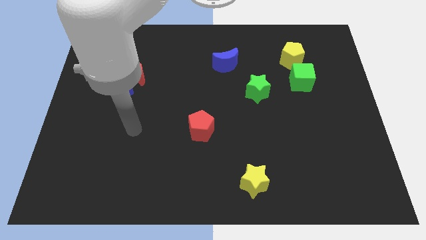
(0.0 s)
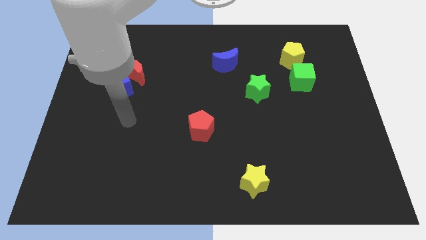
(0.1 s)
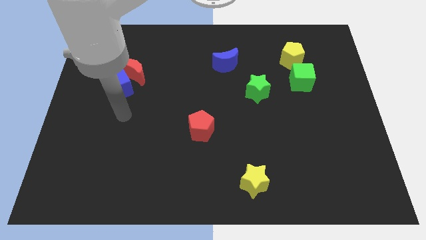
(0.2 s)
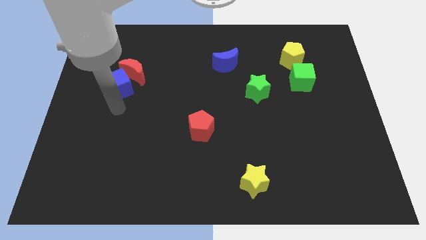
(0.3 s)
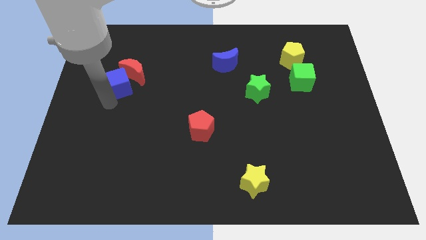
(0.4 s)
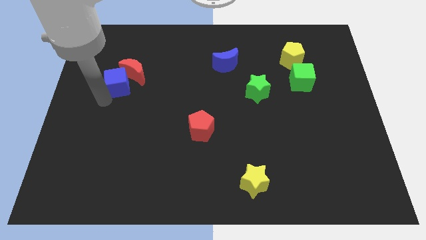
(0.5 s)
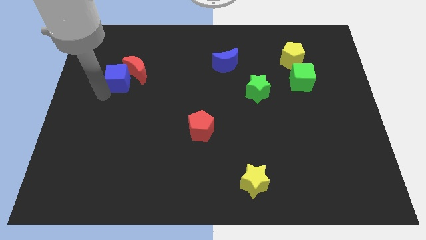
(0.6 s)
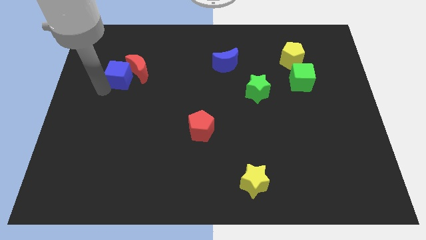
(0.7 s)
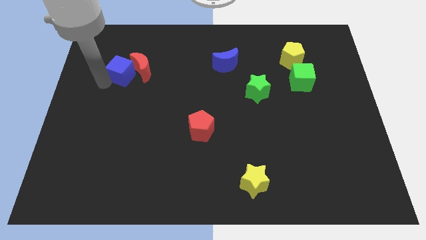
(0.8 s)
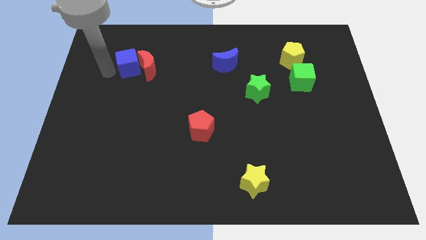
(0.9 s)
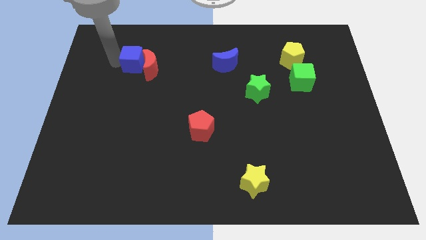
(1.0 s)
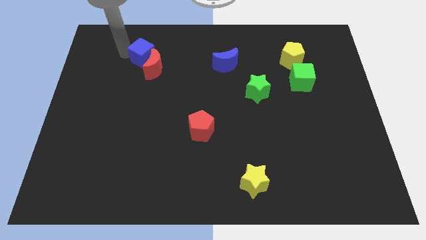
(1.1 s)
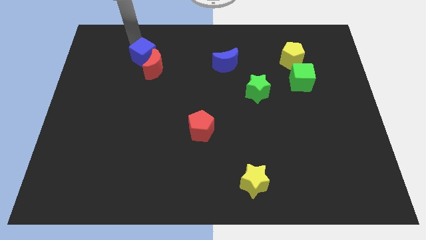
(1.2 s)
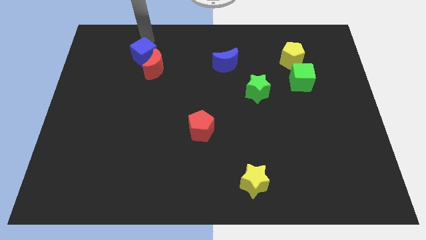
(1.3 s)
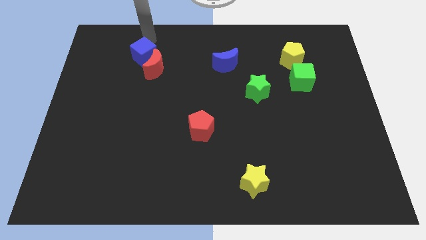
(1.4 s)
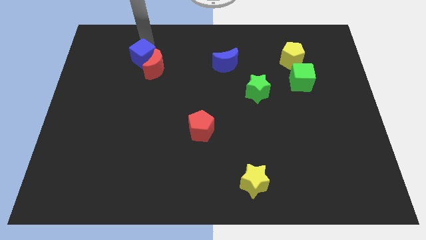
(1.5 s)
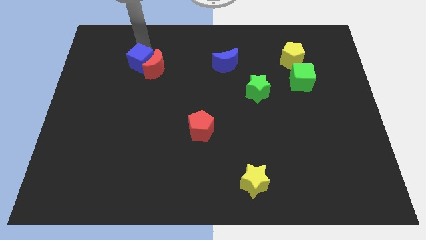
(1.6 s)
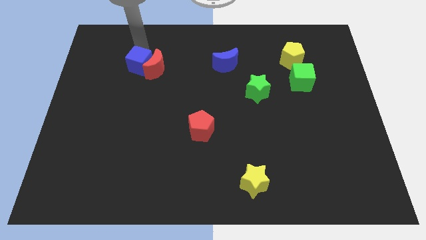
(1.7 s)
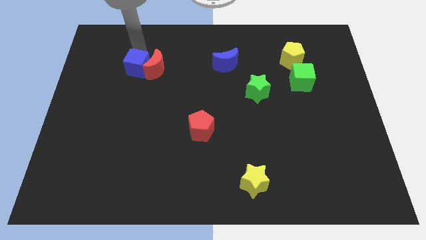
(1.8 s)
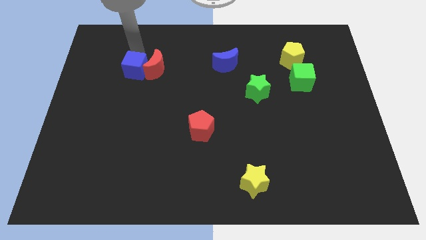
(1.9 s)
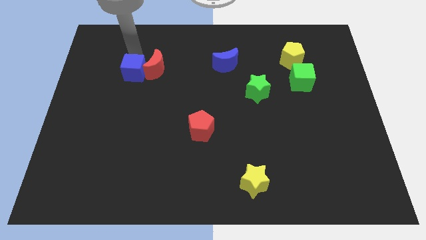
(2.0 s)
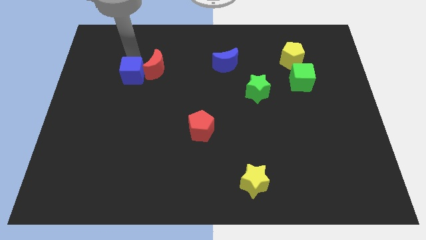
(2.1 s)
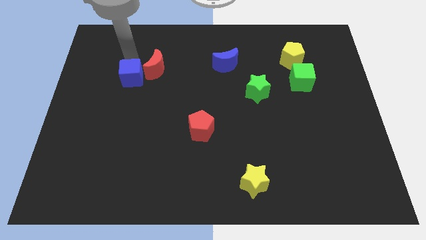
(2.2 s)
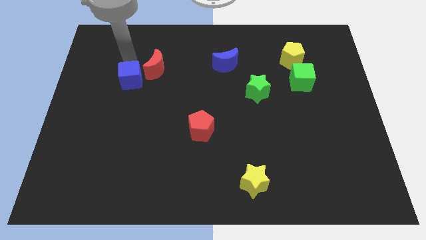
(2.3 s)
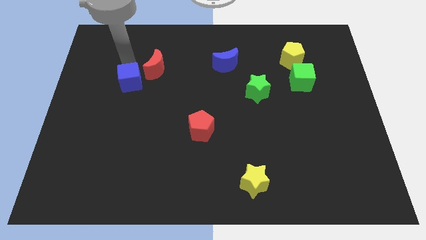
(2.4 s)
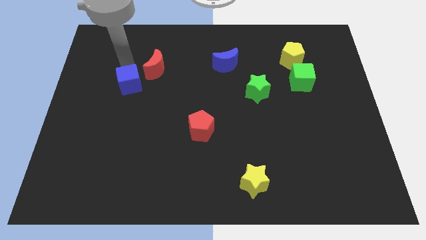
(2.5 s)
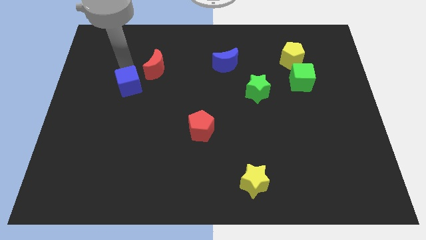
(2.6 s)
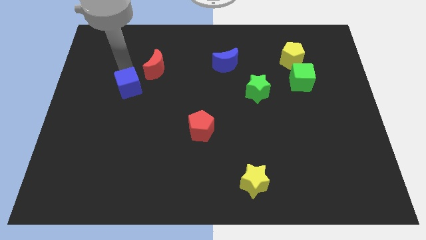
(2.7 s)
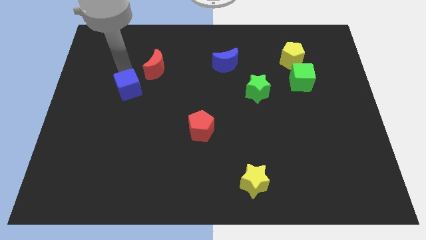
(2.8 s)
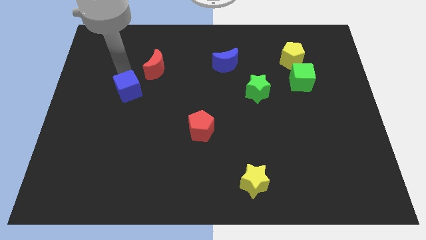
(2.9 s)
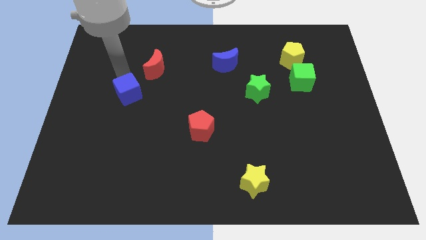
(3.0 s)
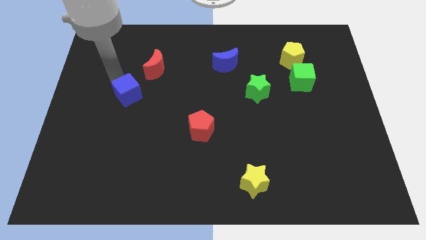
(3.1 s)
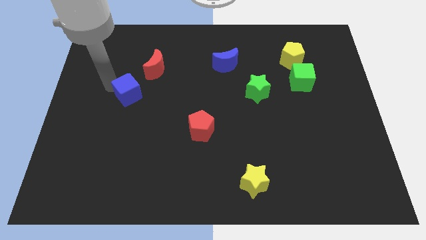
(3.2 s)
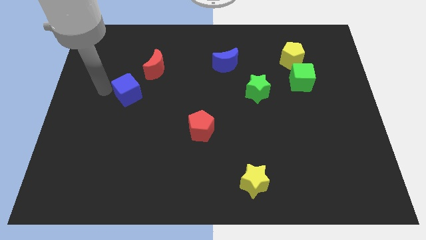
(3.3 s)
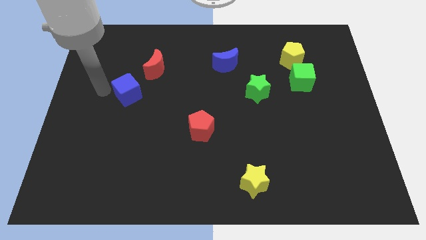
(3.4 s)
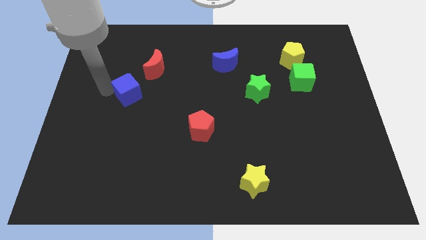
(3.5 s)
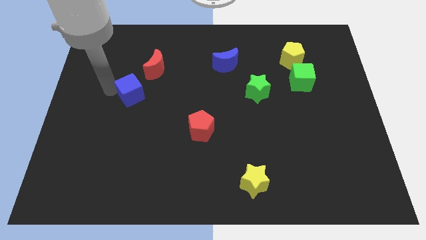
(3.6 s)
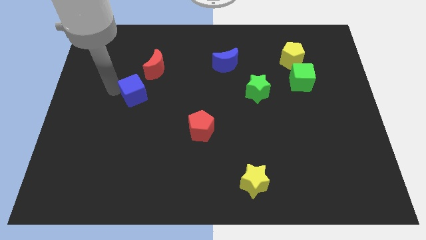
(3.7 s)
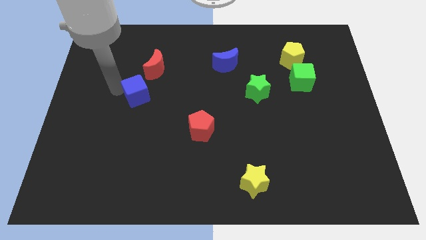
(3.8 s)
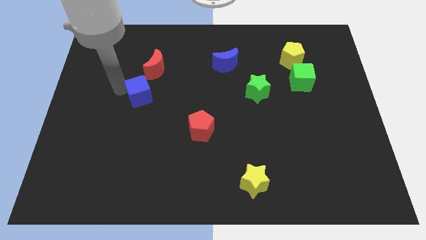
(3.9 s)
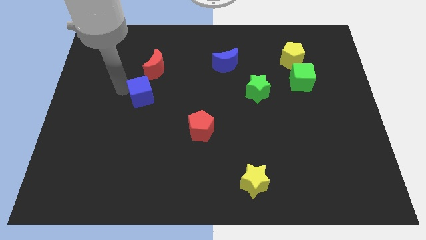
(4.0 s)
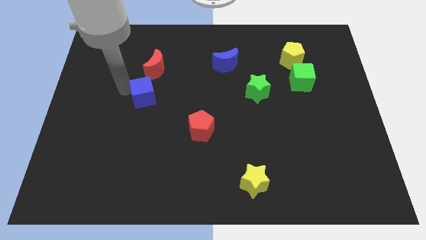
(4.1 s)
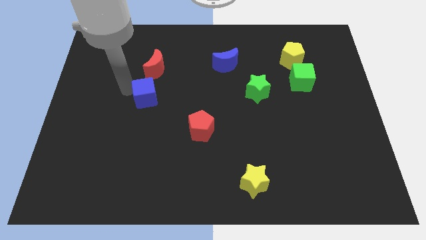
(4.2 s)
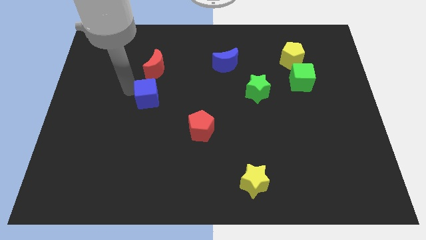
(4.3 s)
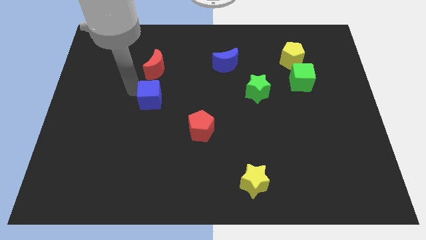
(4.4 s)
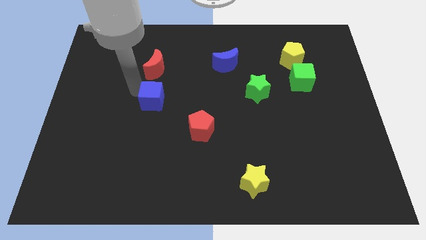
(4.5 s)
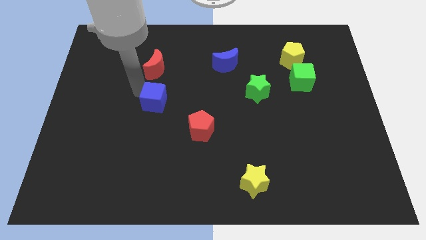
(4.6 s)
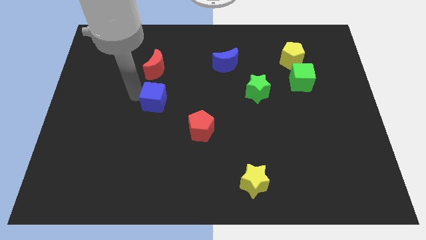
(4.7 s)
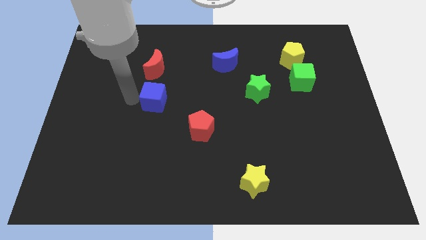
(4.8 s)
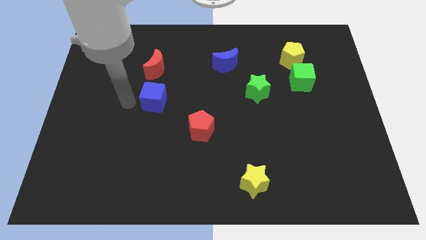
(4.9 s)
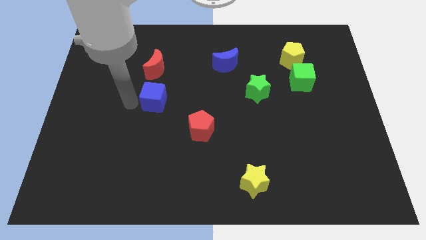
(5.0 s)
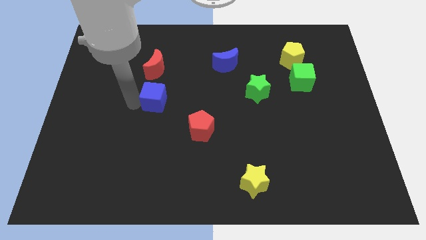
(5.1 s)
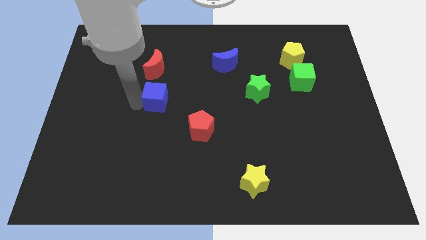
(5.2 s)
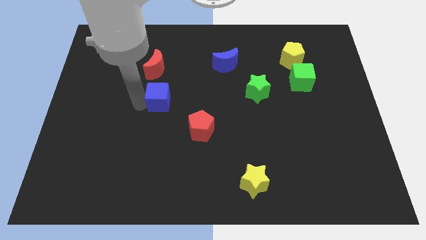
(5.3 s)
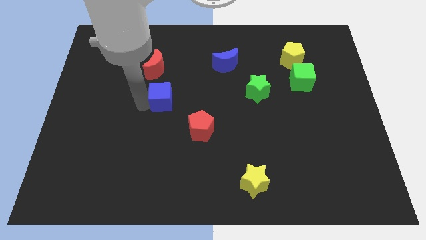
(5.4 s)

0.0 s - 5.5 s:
put the blue cube to the middle

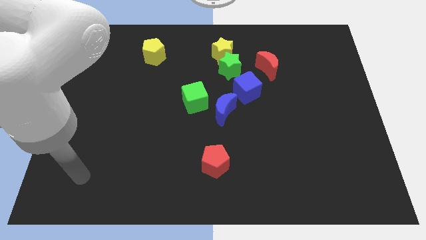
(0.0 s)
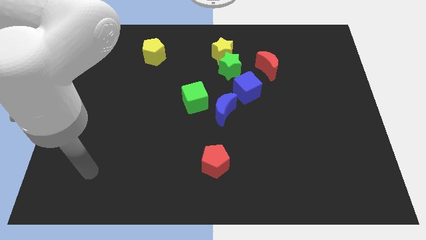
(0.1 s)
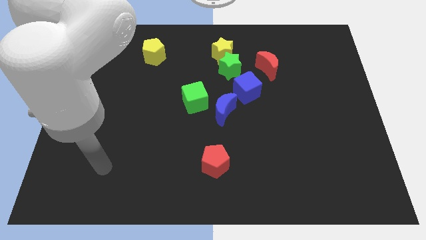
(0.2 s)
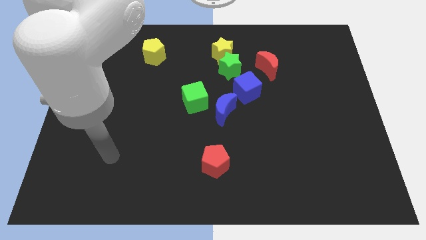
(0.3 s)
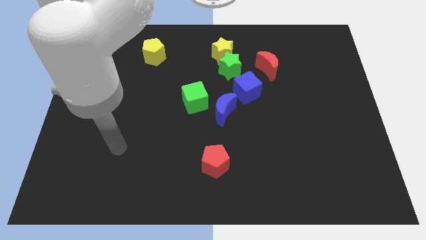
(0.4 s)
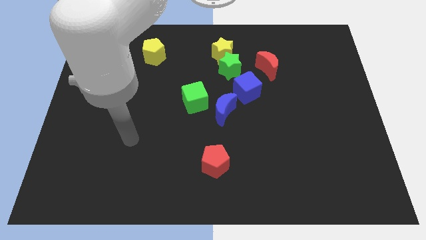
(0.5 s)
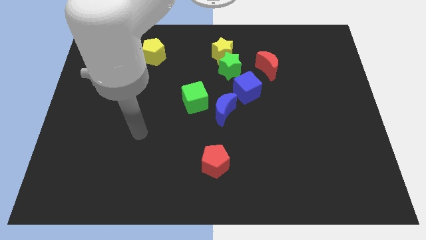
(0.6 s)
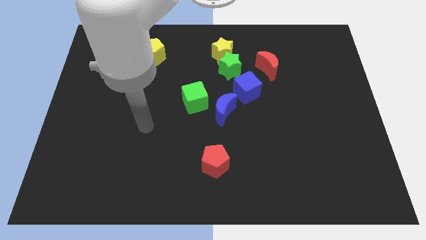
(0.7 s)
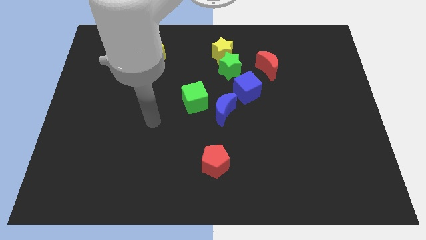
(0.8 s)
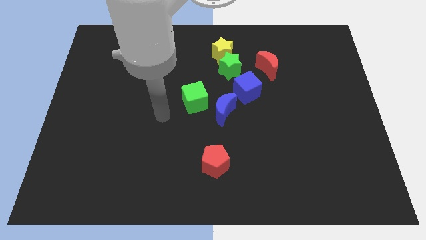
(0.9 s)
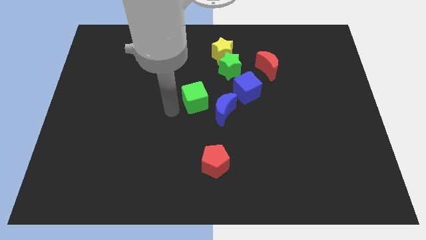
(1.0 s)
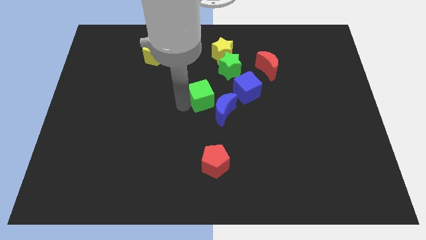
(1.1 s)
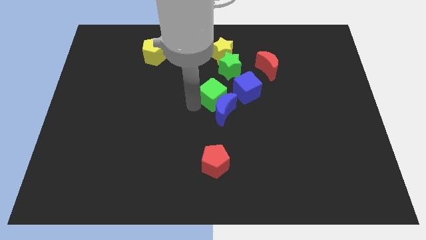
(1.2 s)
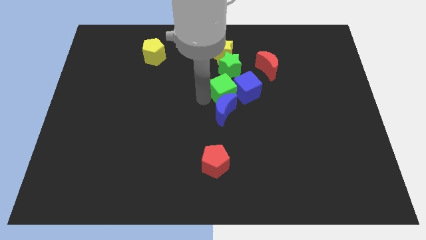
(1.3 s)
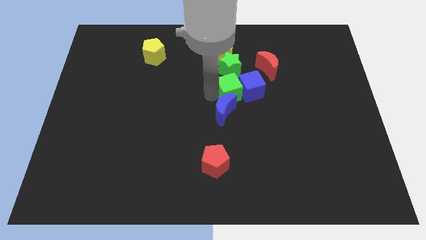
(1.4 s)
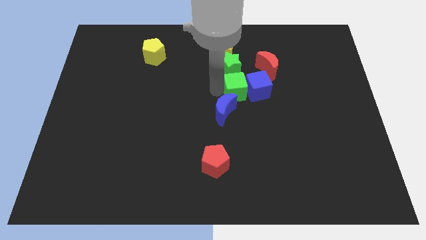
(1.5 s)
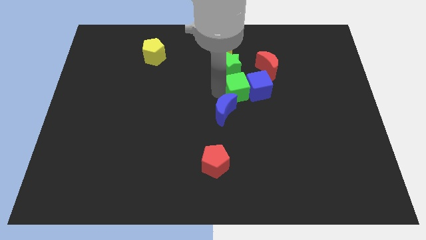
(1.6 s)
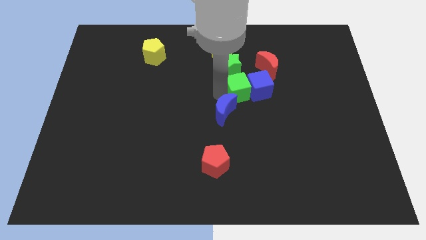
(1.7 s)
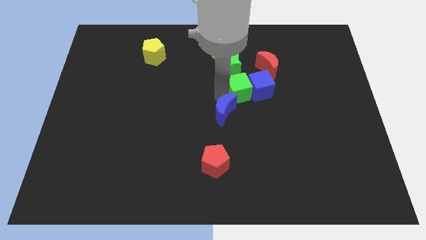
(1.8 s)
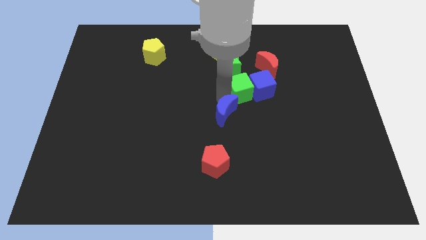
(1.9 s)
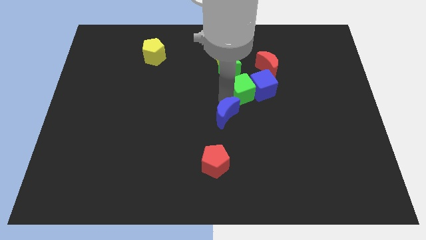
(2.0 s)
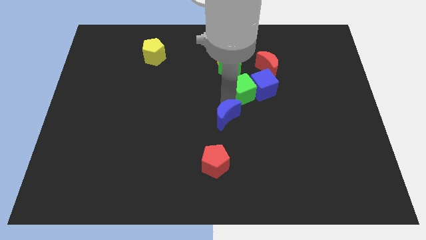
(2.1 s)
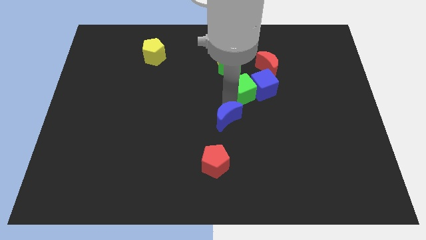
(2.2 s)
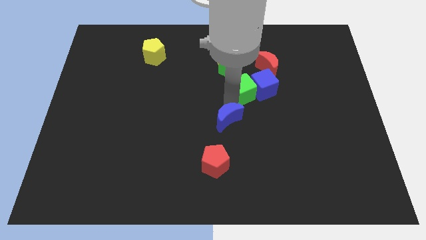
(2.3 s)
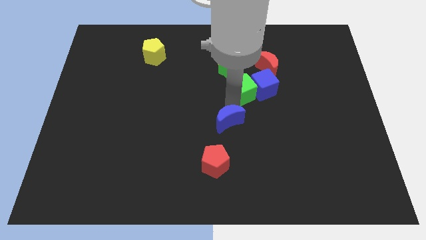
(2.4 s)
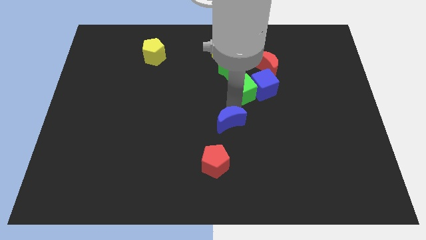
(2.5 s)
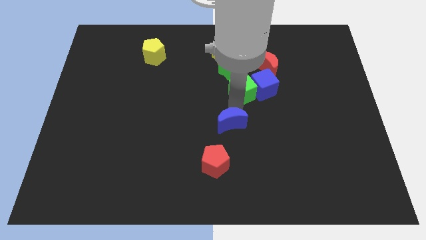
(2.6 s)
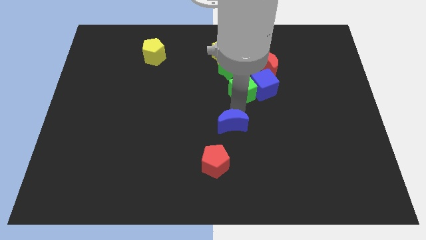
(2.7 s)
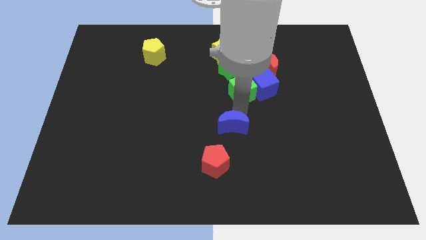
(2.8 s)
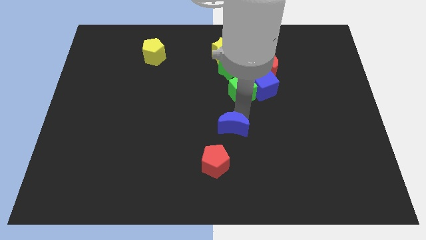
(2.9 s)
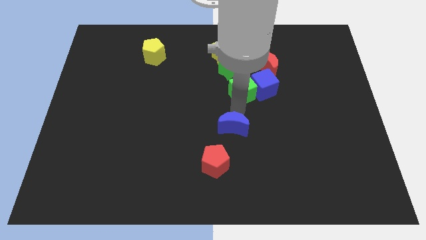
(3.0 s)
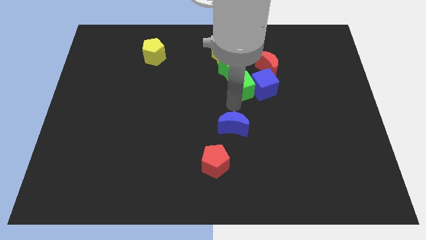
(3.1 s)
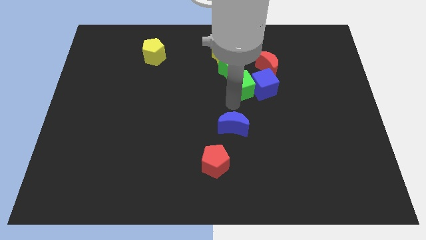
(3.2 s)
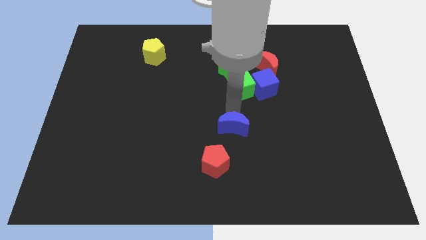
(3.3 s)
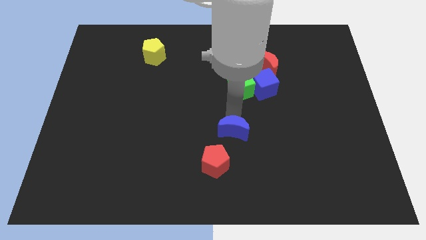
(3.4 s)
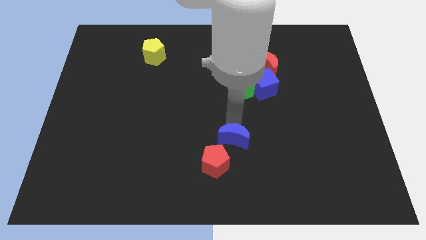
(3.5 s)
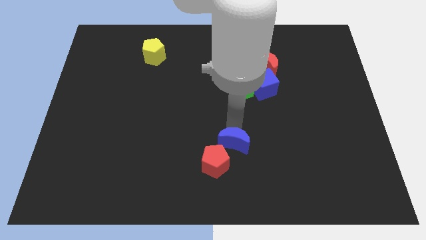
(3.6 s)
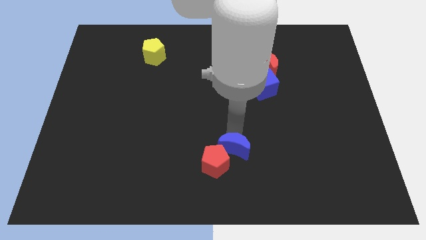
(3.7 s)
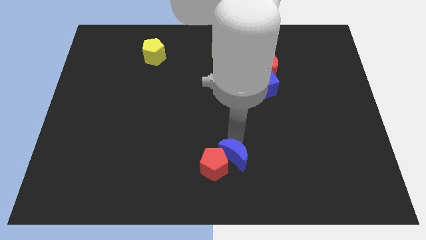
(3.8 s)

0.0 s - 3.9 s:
push the blue moon to the bottom
